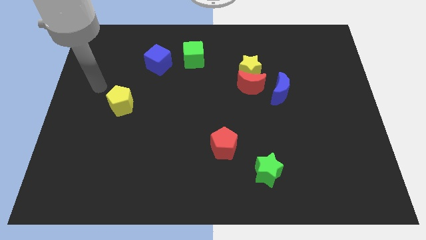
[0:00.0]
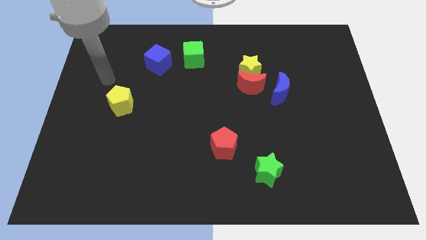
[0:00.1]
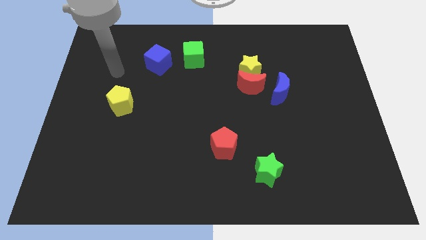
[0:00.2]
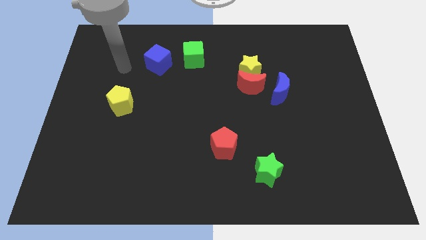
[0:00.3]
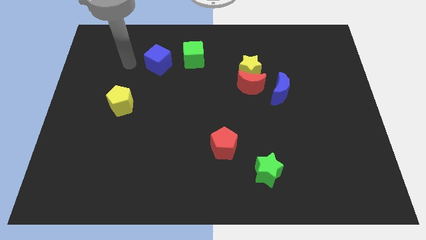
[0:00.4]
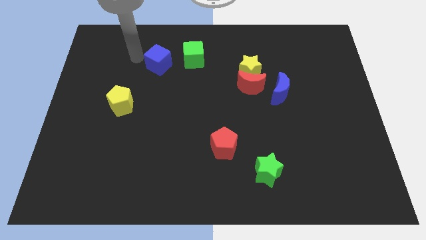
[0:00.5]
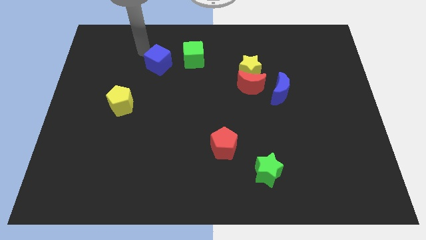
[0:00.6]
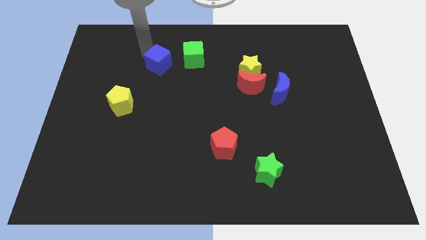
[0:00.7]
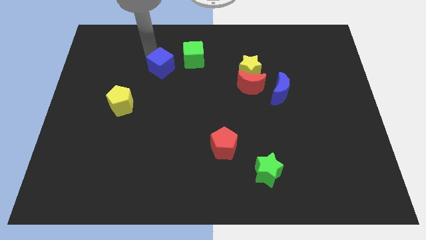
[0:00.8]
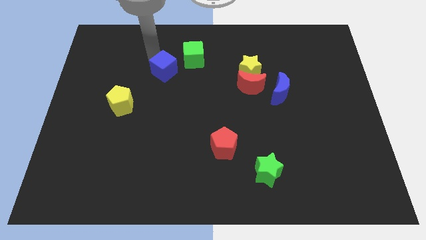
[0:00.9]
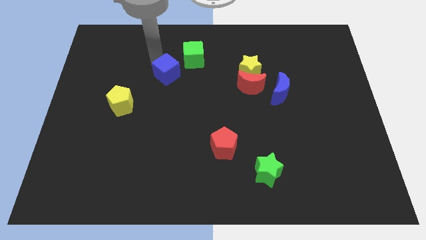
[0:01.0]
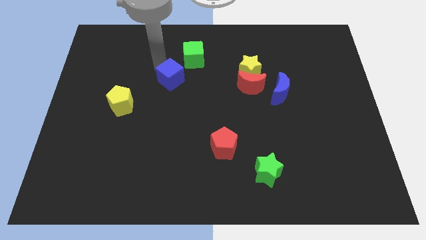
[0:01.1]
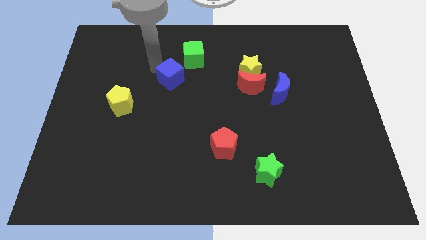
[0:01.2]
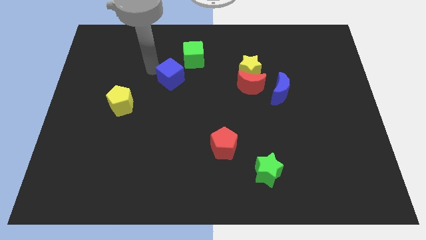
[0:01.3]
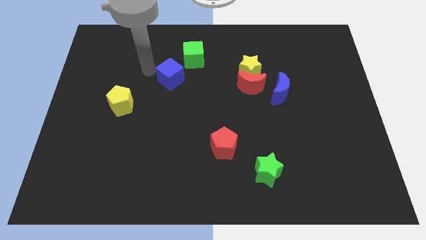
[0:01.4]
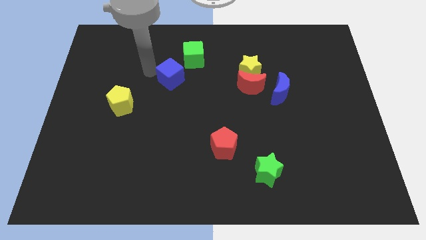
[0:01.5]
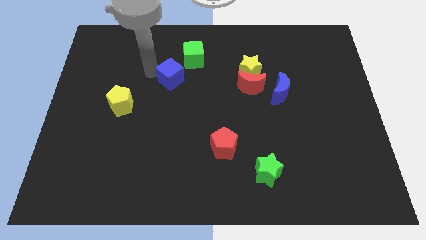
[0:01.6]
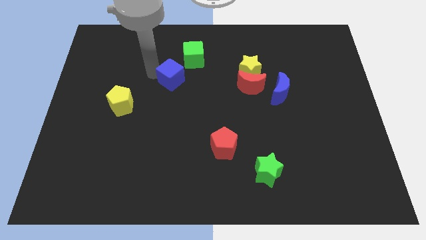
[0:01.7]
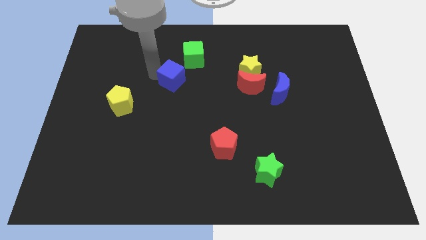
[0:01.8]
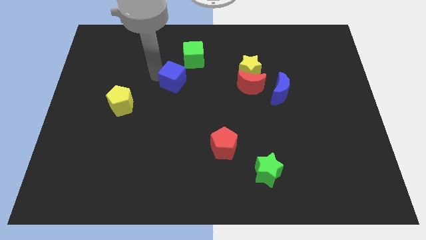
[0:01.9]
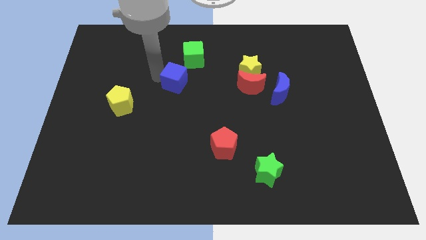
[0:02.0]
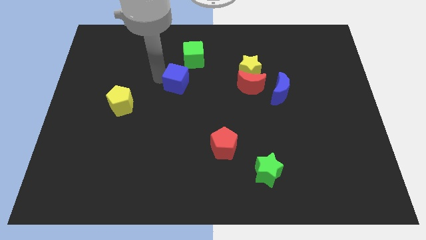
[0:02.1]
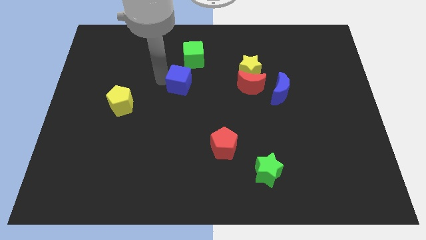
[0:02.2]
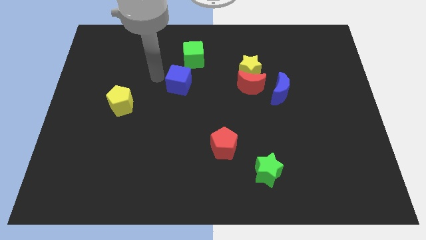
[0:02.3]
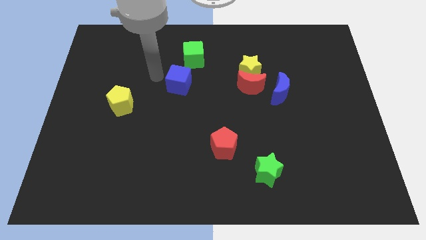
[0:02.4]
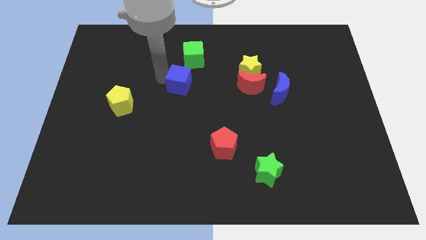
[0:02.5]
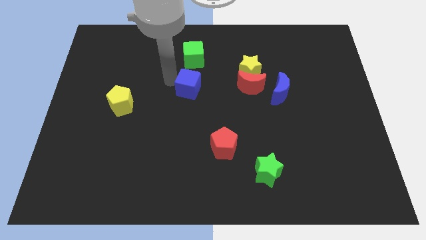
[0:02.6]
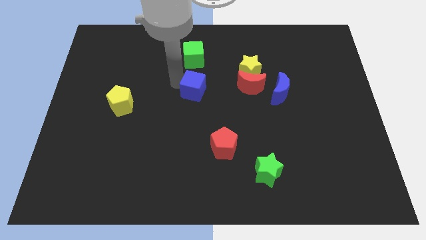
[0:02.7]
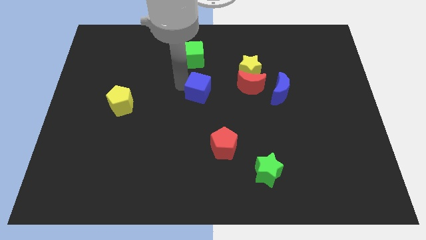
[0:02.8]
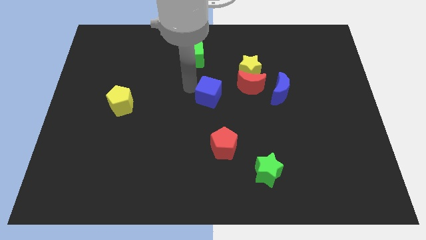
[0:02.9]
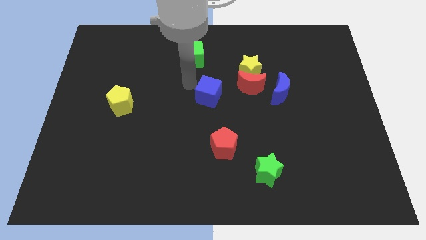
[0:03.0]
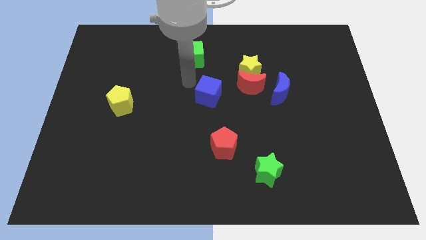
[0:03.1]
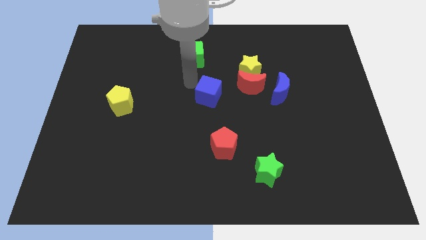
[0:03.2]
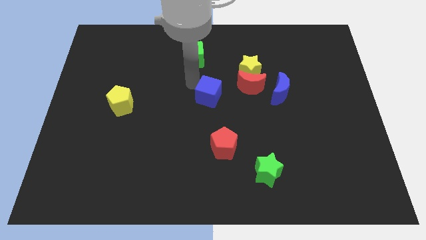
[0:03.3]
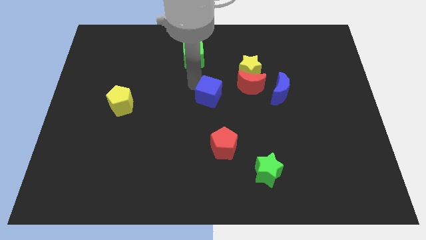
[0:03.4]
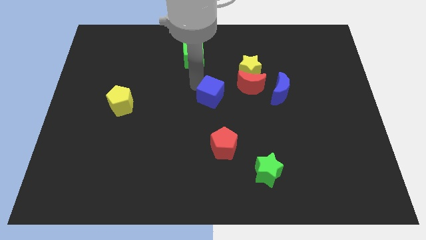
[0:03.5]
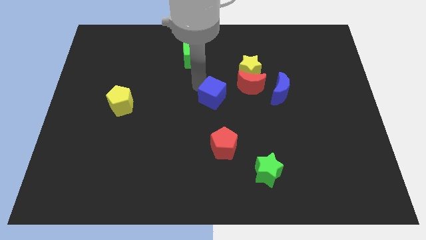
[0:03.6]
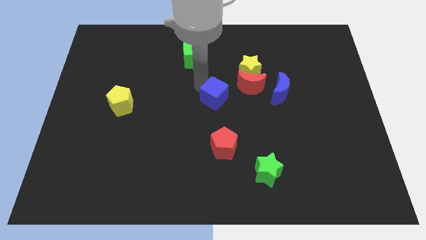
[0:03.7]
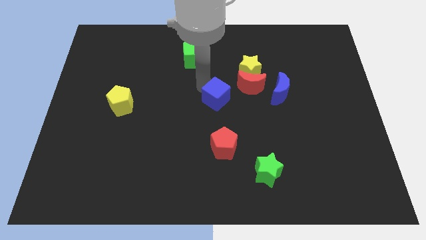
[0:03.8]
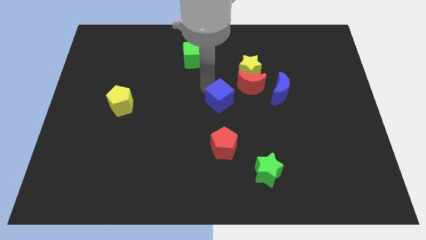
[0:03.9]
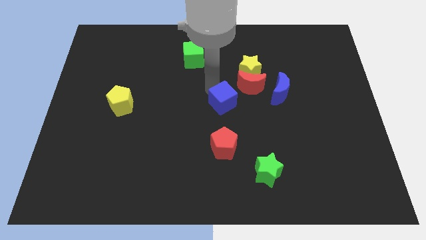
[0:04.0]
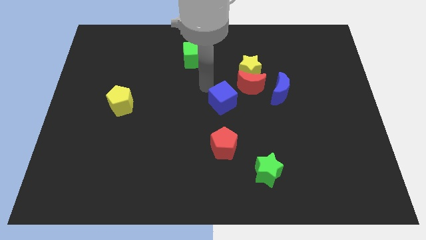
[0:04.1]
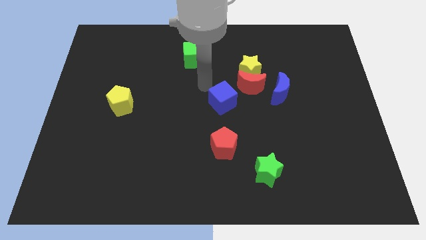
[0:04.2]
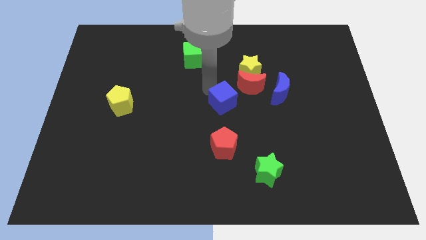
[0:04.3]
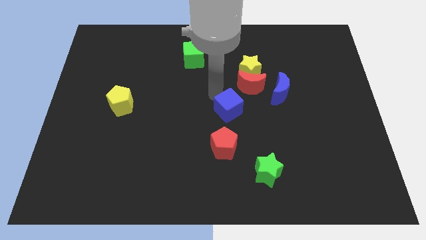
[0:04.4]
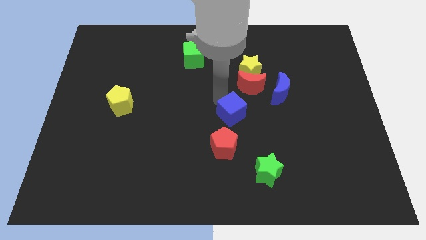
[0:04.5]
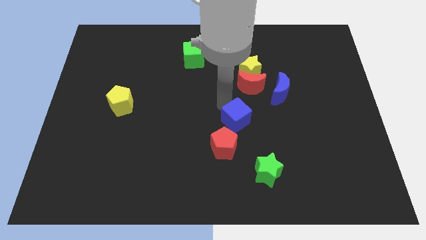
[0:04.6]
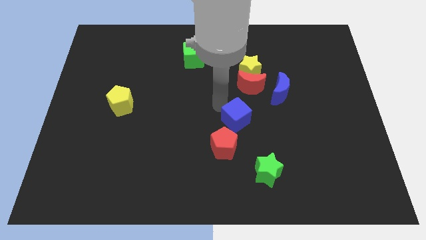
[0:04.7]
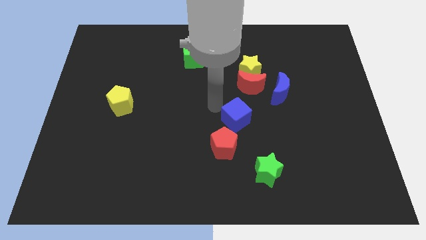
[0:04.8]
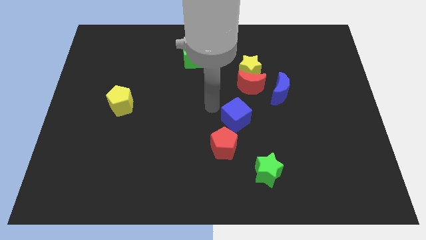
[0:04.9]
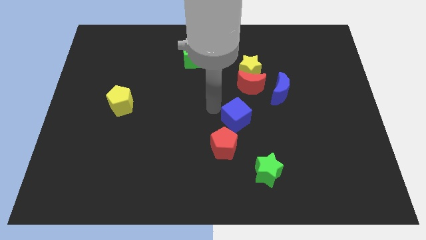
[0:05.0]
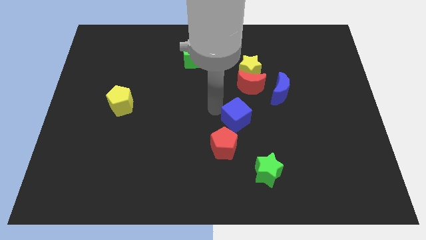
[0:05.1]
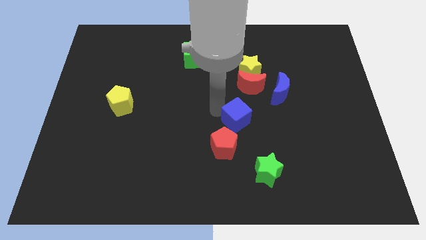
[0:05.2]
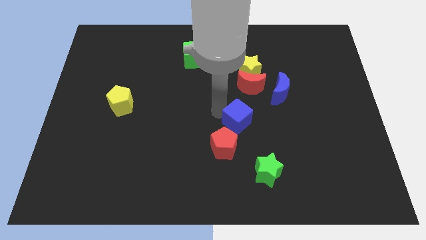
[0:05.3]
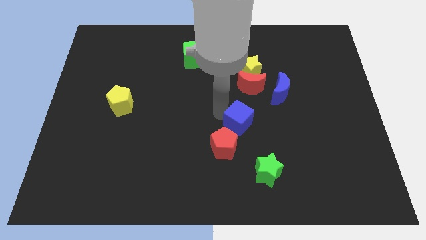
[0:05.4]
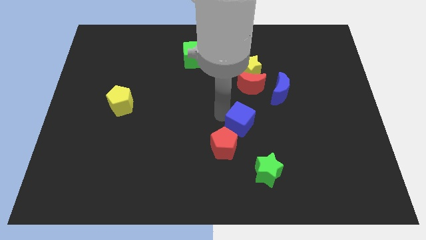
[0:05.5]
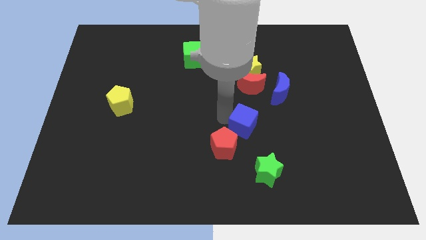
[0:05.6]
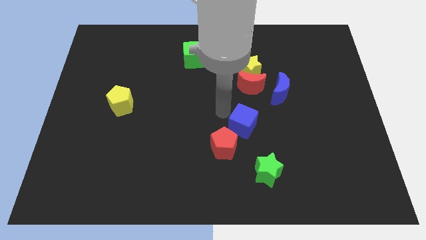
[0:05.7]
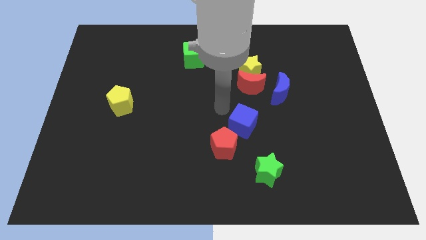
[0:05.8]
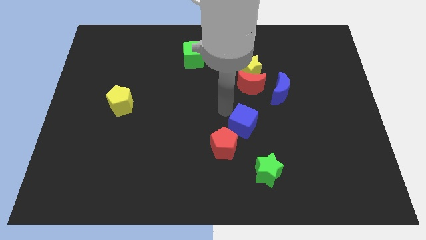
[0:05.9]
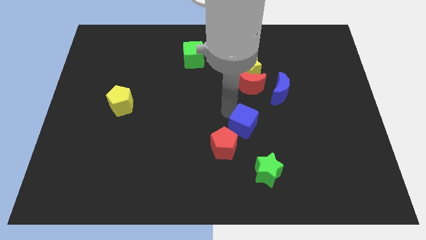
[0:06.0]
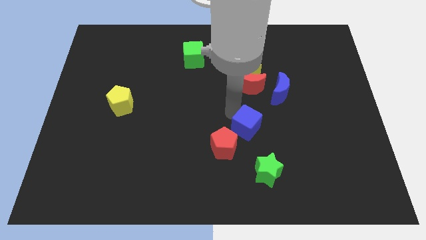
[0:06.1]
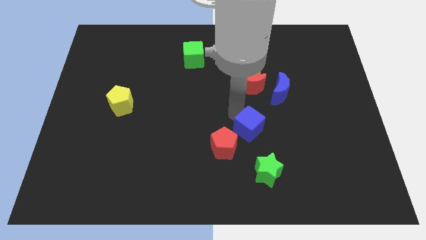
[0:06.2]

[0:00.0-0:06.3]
put the blue cube to the right of the red pentagon

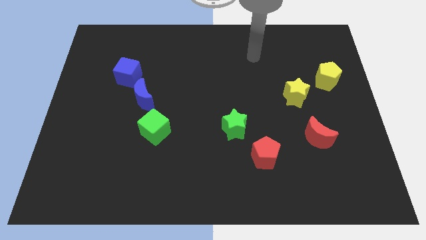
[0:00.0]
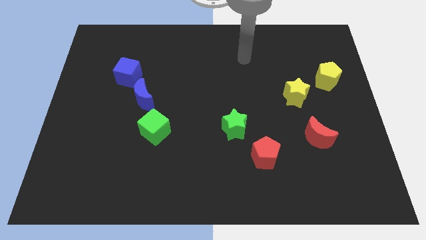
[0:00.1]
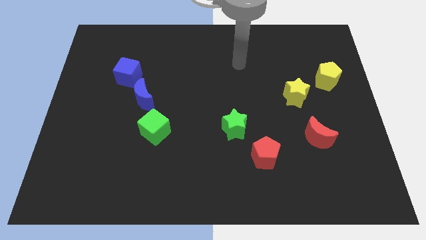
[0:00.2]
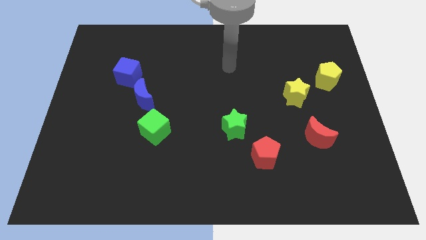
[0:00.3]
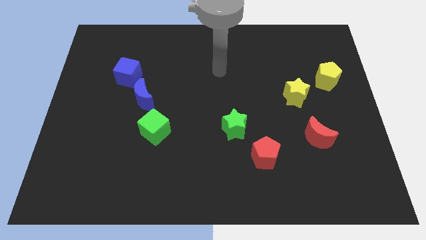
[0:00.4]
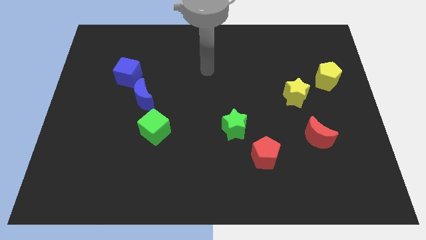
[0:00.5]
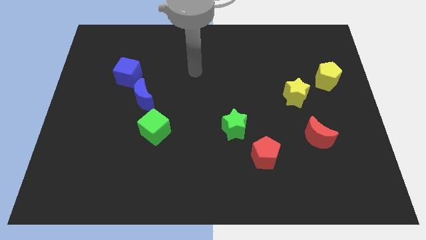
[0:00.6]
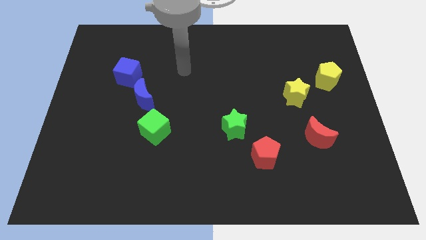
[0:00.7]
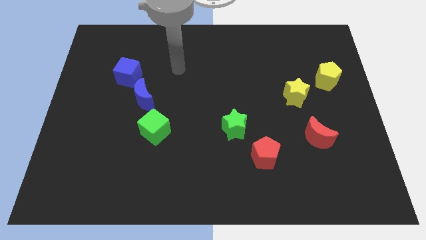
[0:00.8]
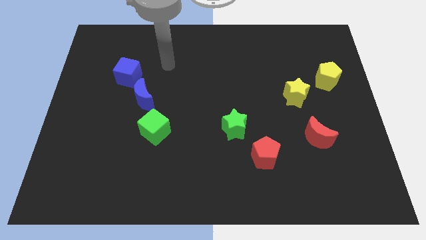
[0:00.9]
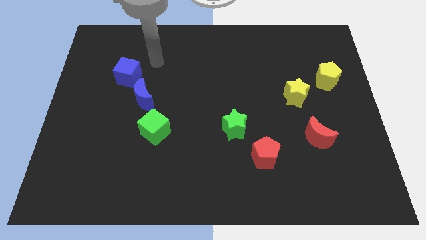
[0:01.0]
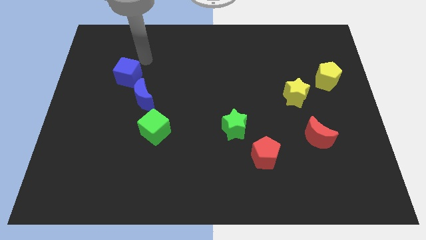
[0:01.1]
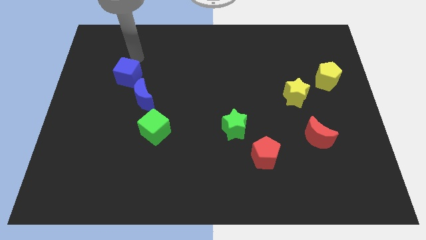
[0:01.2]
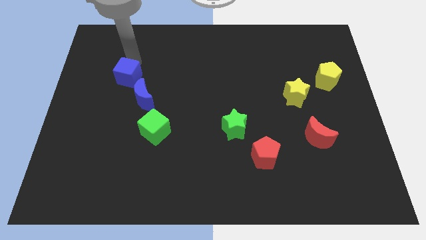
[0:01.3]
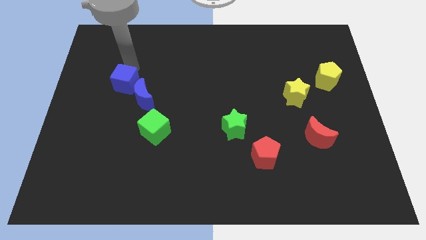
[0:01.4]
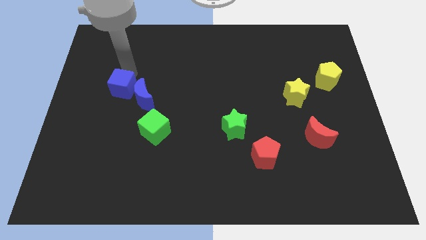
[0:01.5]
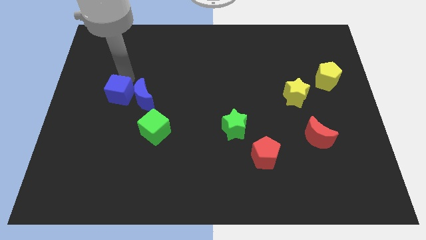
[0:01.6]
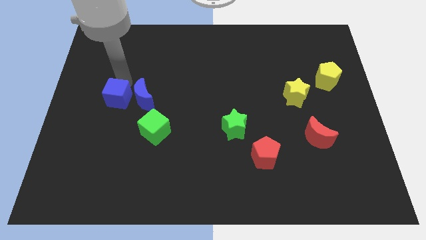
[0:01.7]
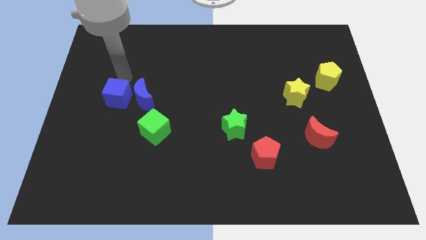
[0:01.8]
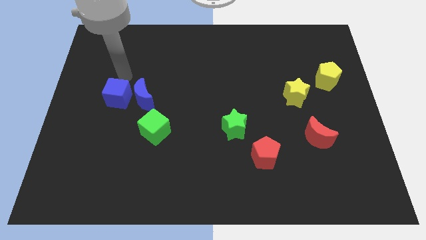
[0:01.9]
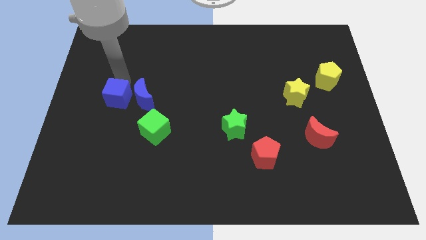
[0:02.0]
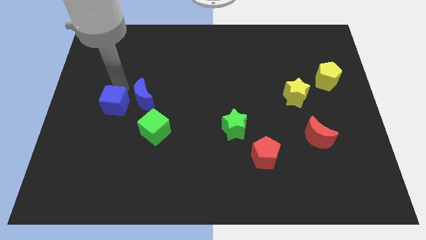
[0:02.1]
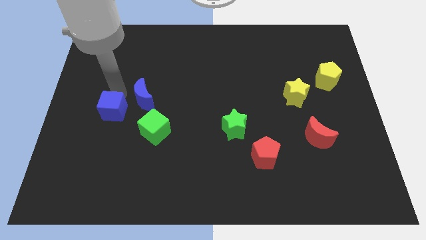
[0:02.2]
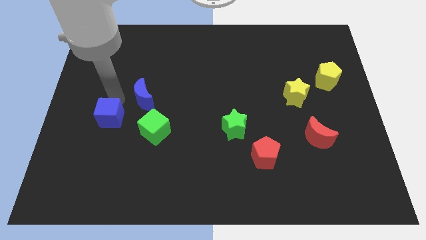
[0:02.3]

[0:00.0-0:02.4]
move the blue cube to the left side of the green cube
